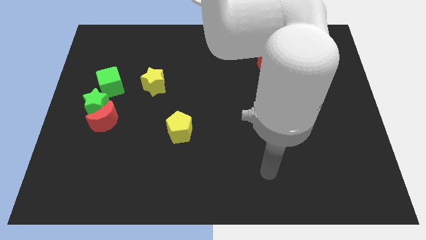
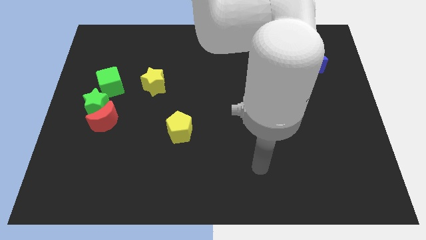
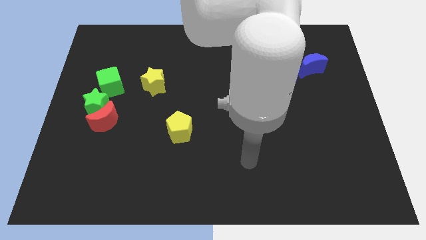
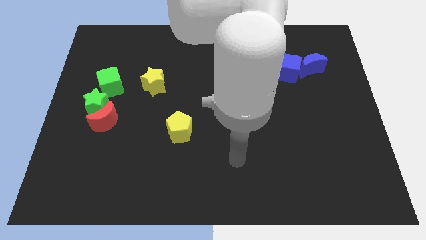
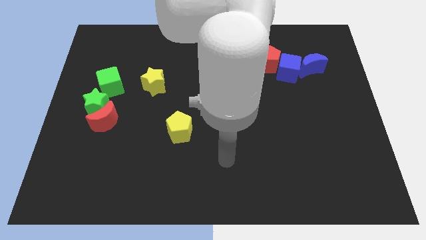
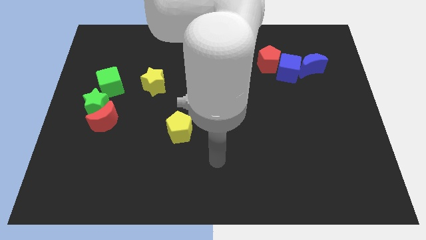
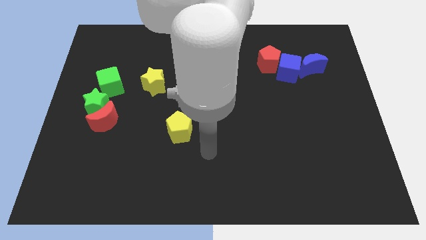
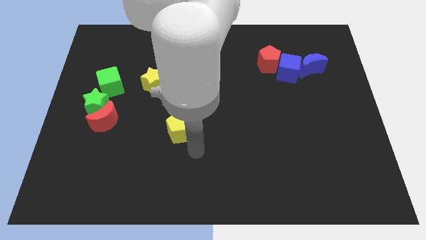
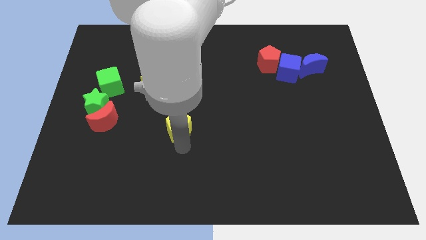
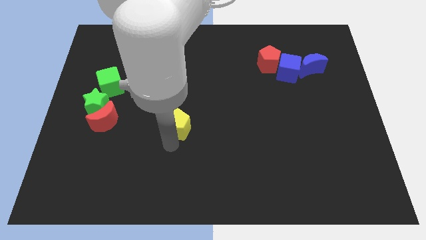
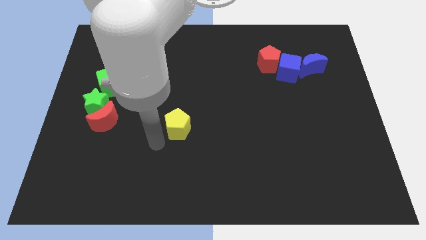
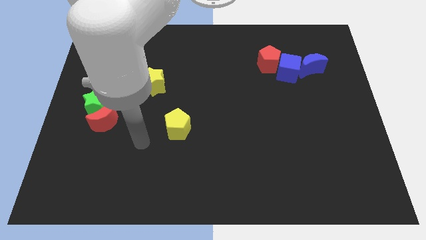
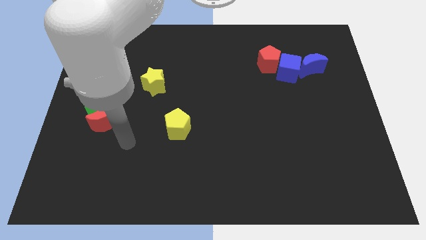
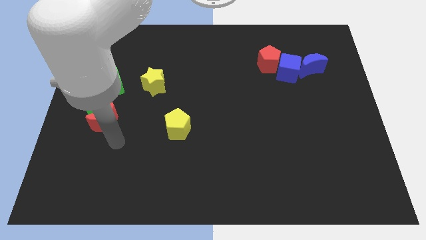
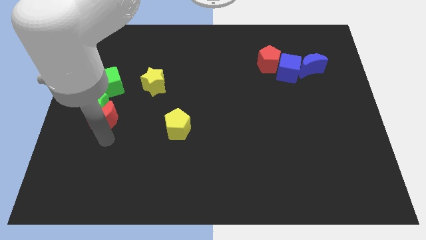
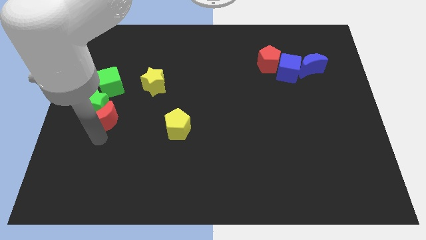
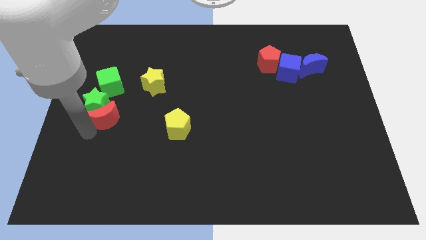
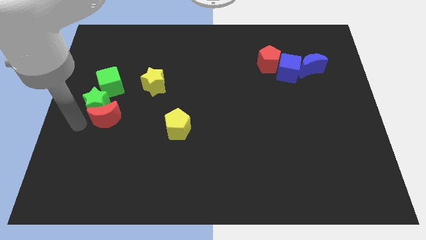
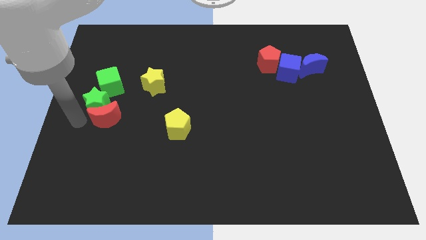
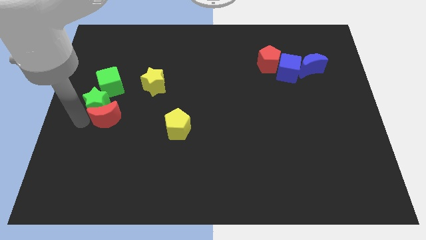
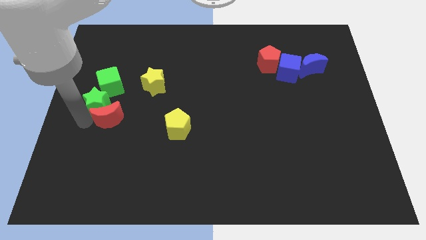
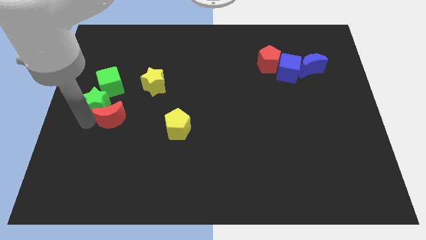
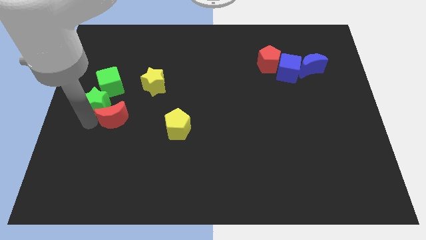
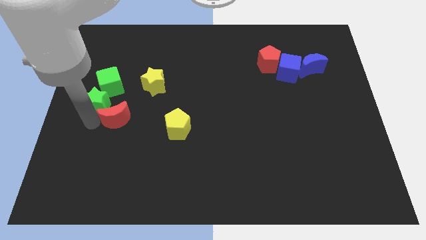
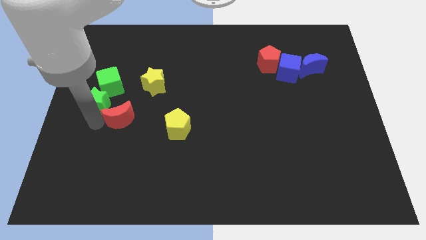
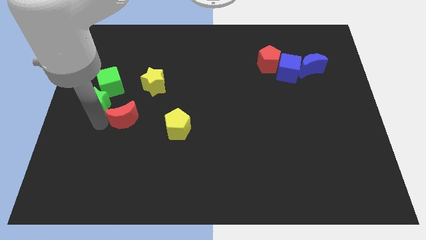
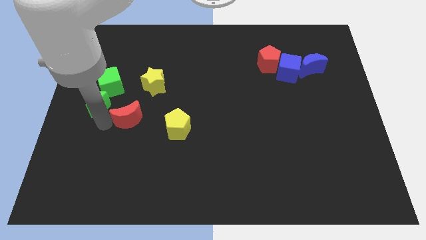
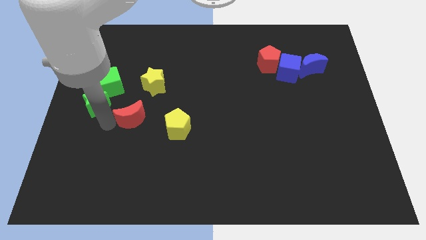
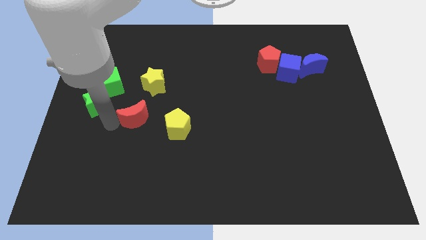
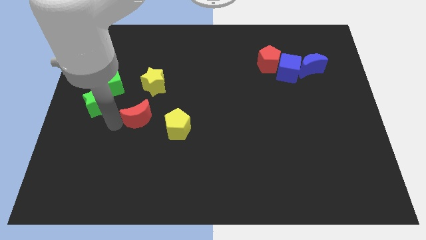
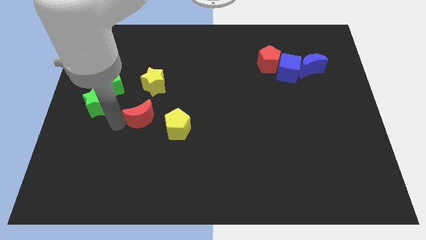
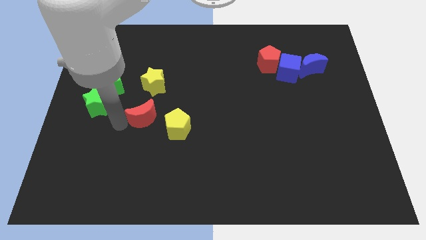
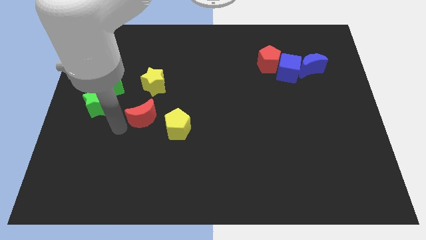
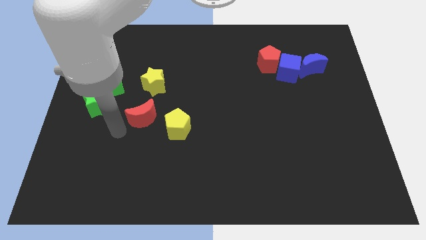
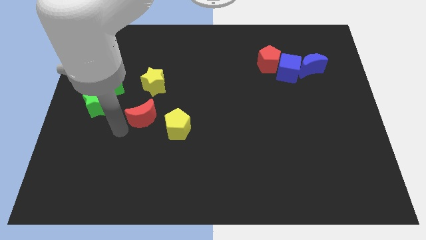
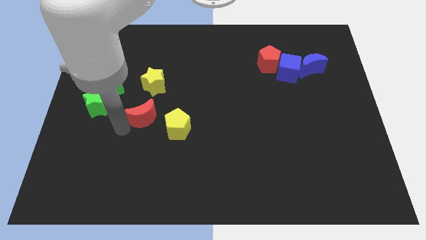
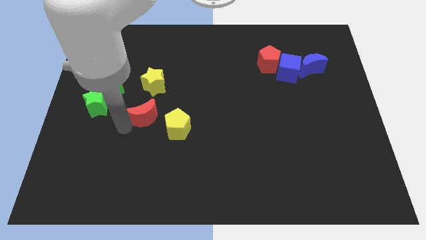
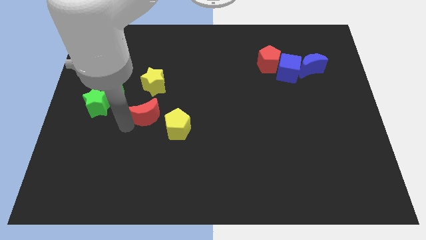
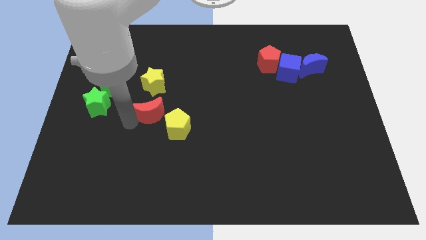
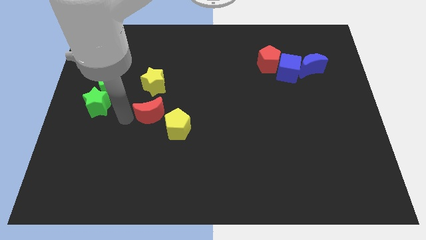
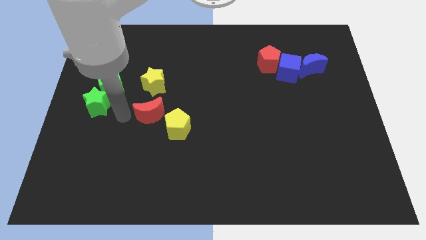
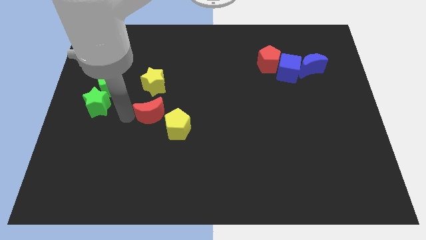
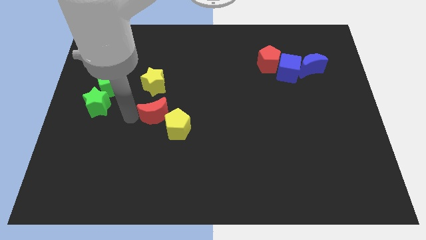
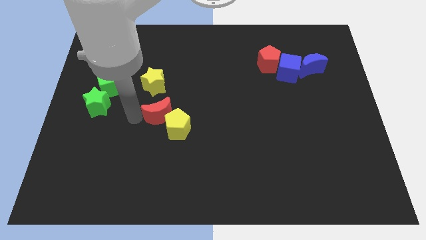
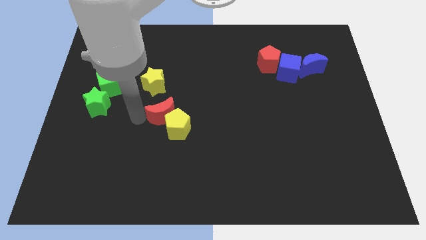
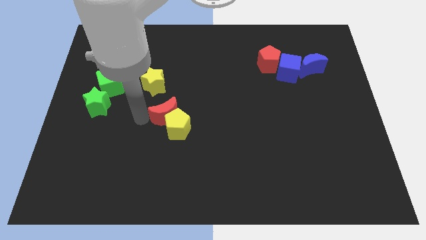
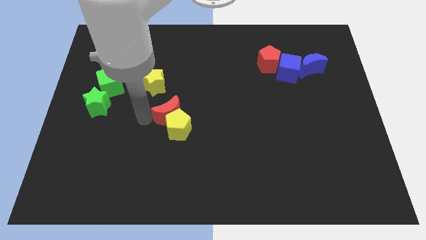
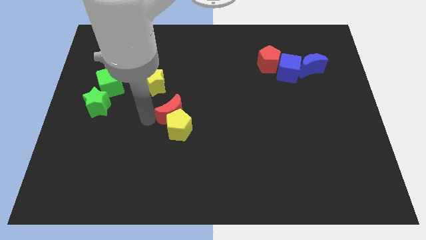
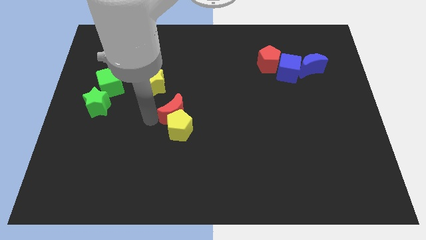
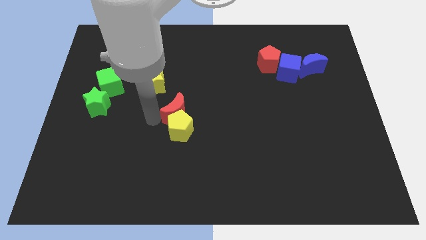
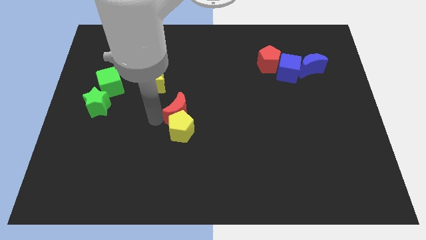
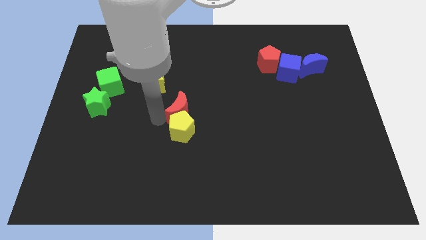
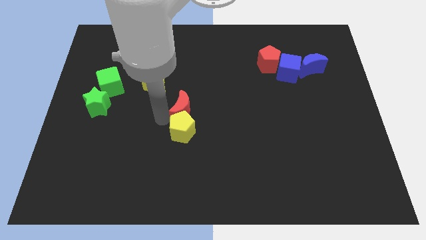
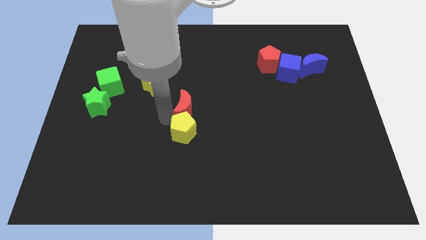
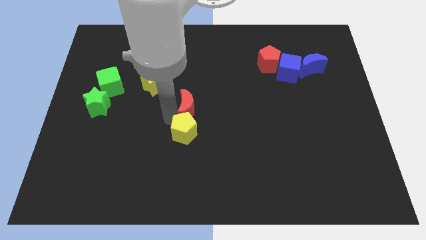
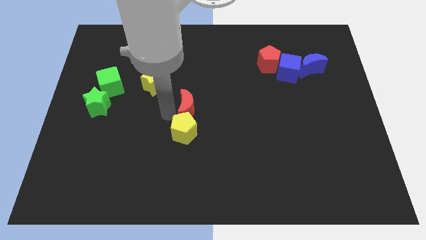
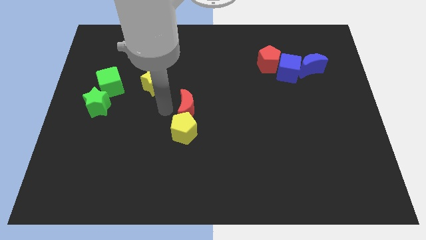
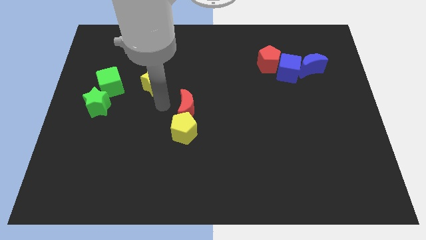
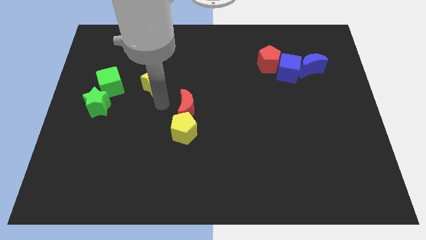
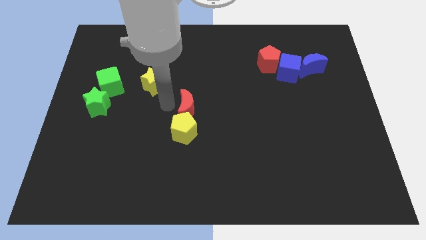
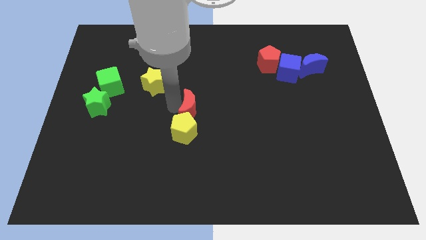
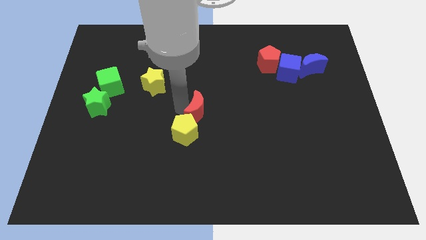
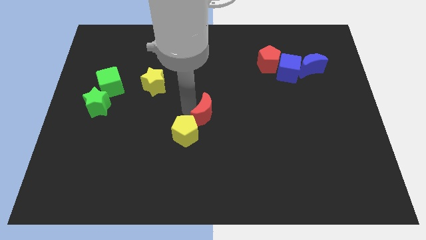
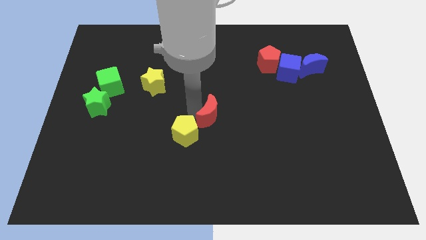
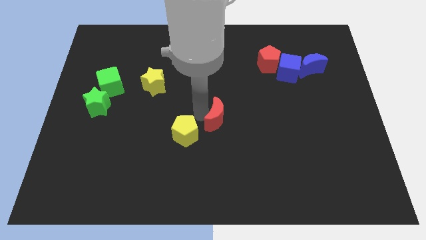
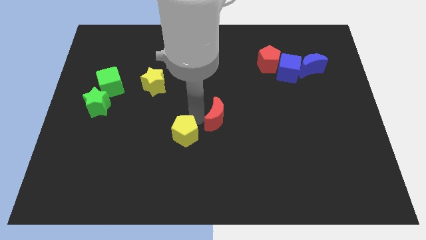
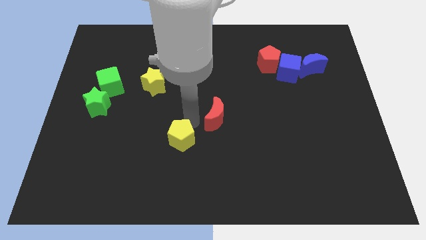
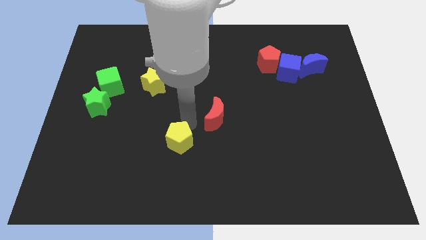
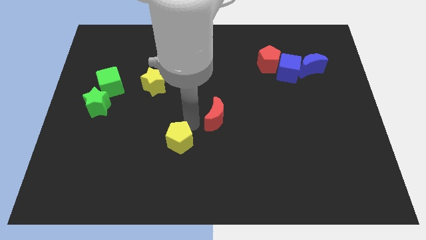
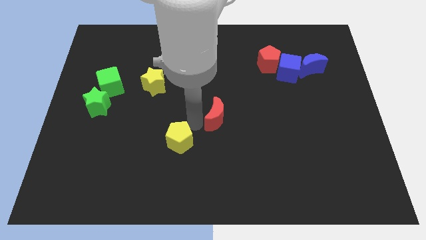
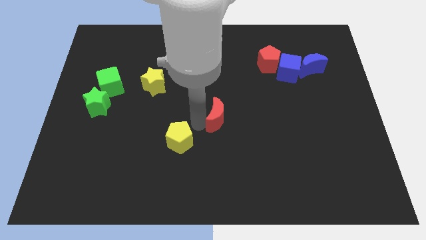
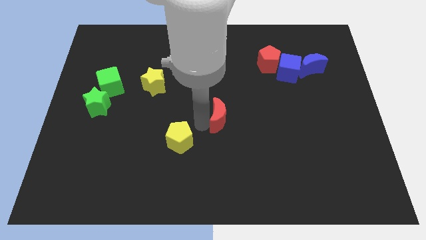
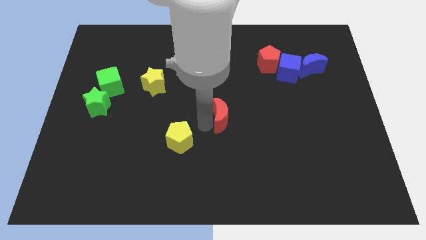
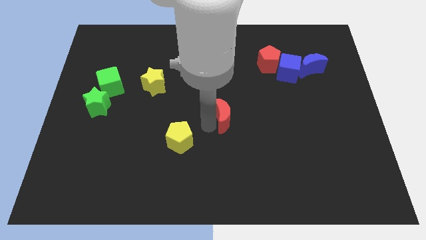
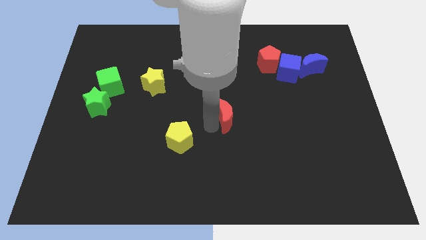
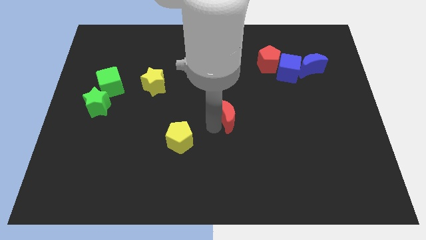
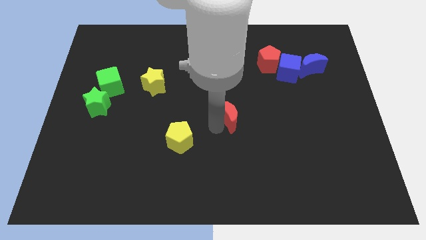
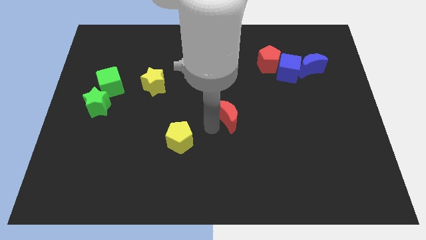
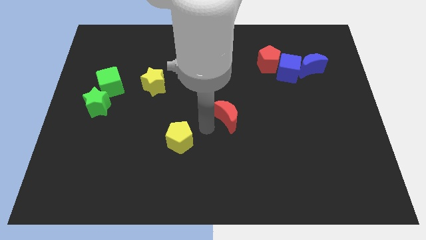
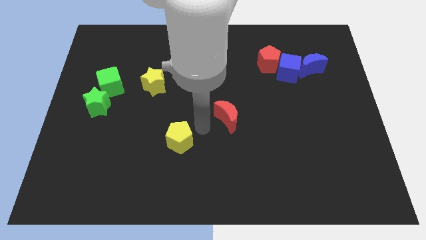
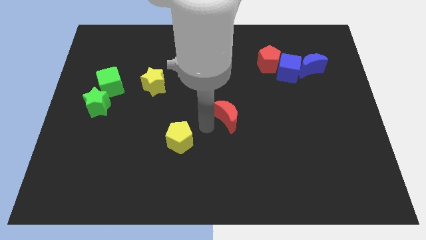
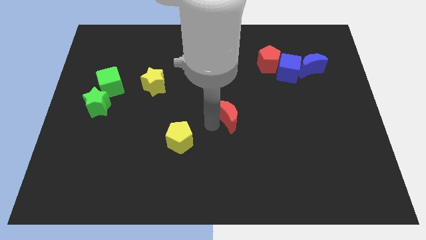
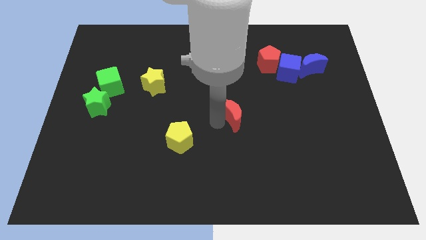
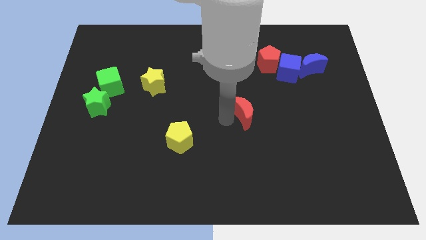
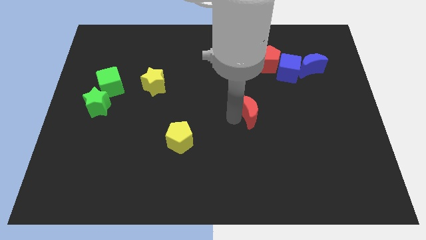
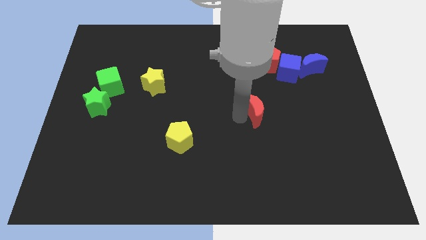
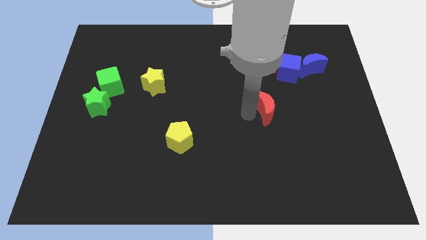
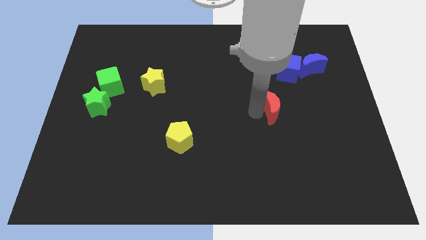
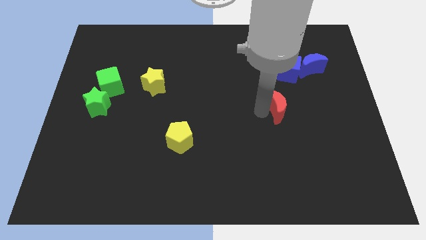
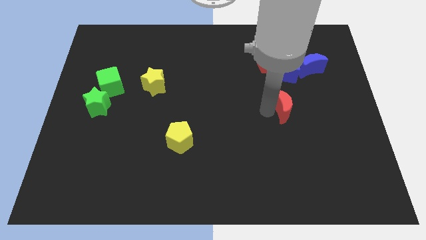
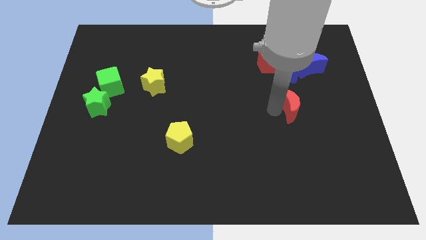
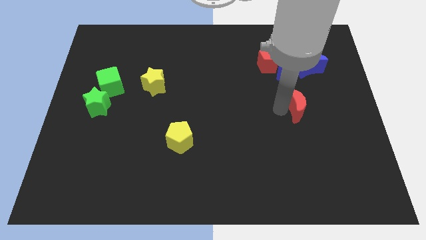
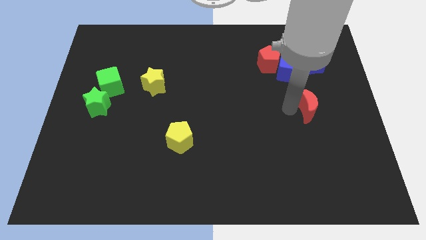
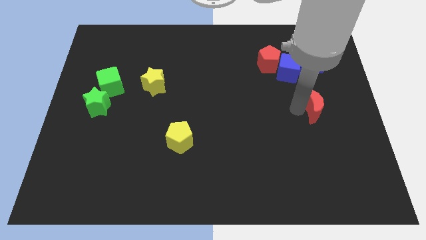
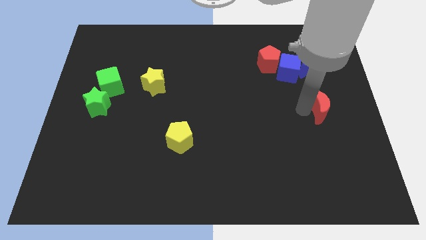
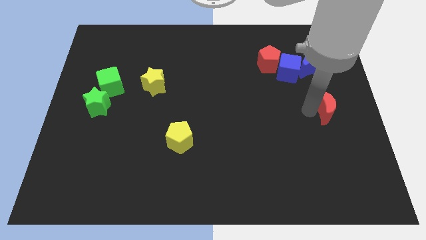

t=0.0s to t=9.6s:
put the red moon to the right side of the board
